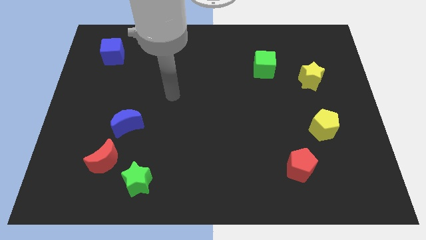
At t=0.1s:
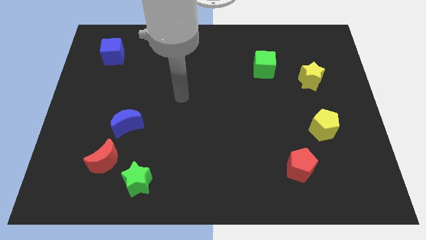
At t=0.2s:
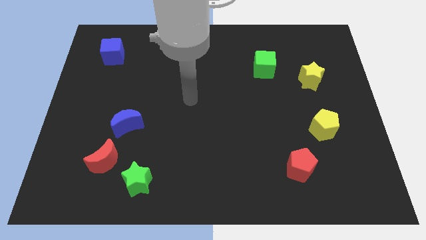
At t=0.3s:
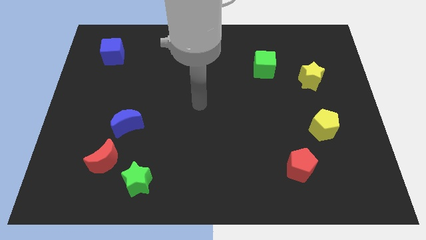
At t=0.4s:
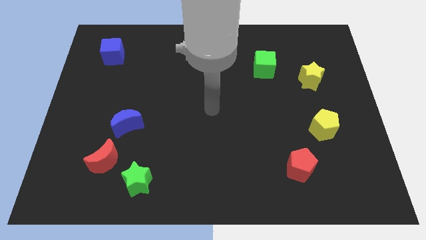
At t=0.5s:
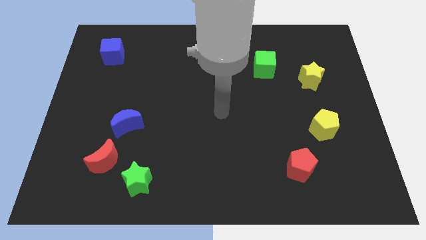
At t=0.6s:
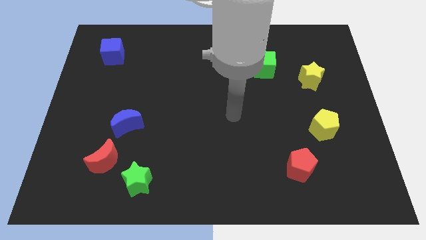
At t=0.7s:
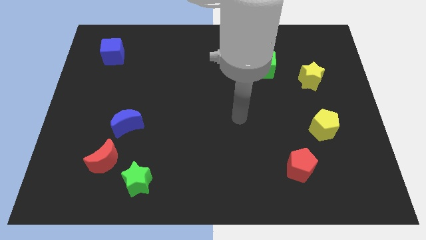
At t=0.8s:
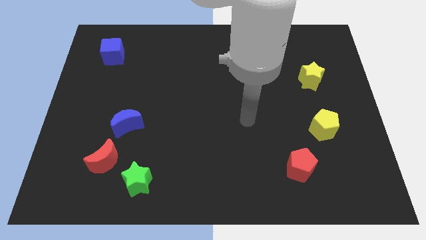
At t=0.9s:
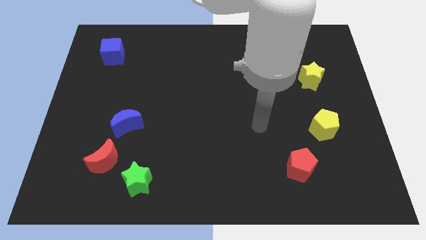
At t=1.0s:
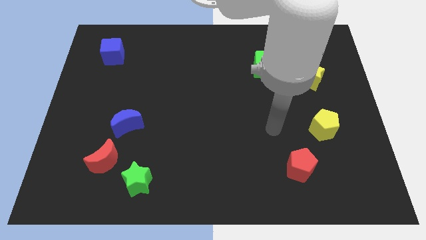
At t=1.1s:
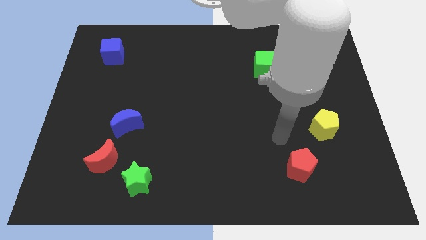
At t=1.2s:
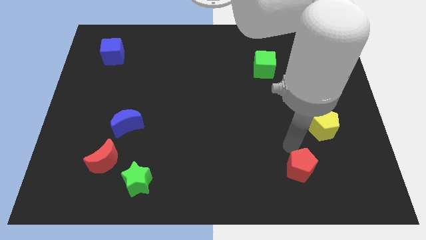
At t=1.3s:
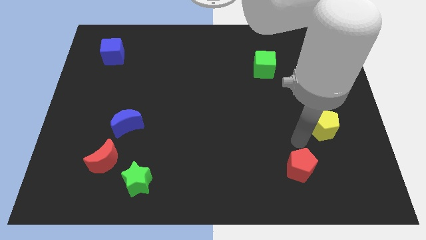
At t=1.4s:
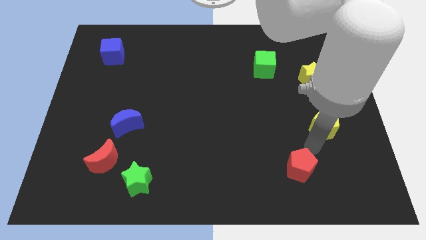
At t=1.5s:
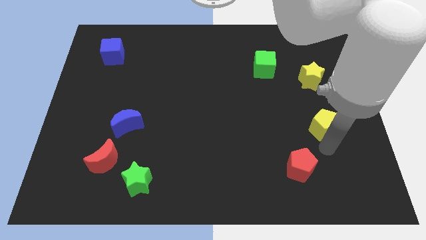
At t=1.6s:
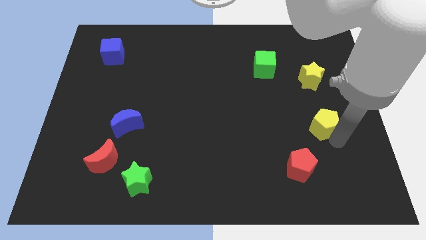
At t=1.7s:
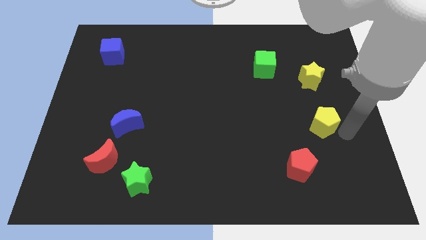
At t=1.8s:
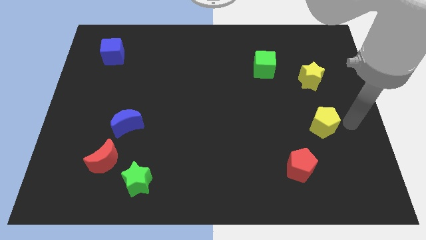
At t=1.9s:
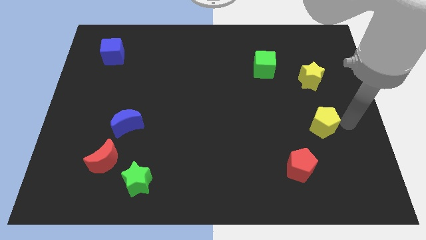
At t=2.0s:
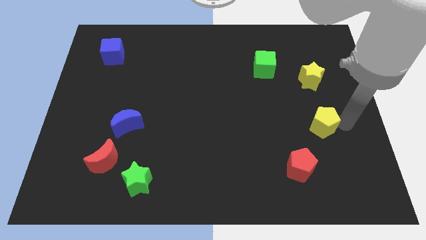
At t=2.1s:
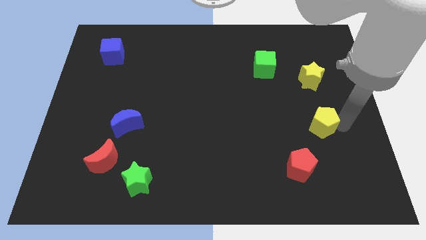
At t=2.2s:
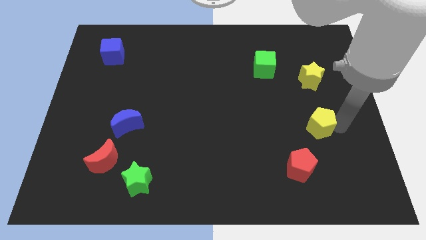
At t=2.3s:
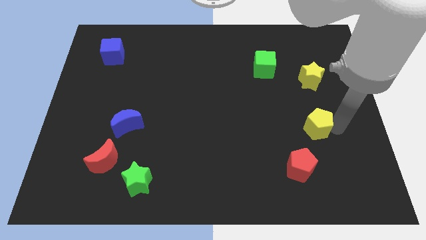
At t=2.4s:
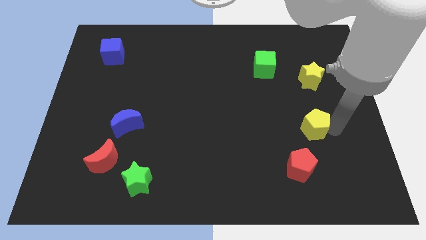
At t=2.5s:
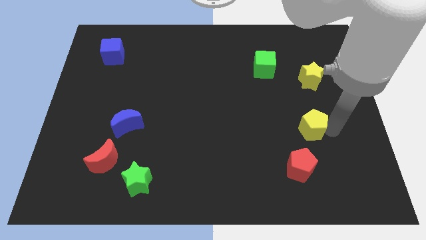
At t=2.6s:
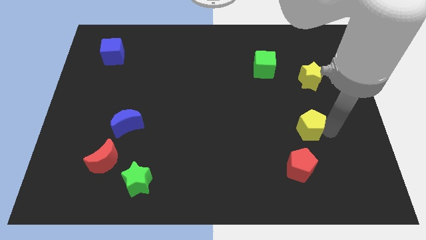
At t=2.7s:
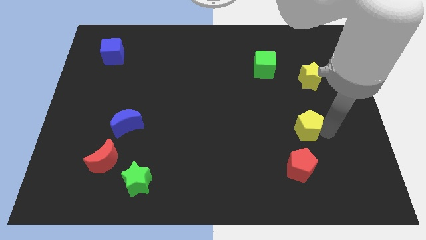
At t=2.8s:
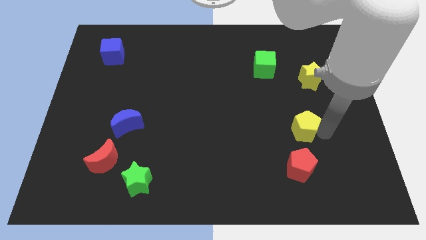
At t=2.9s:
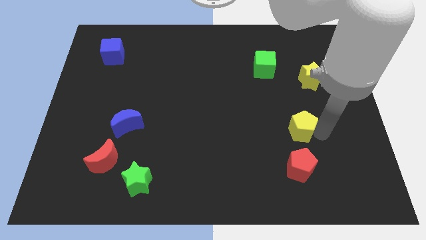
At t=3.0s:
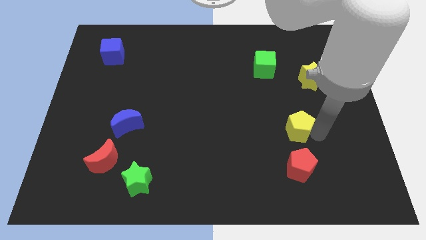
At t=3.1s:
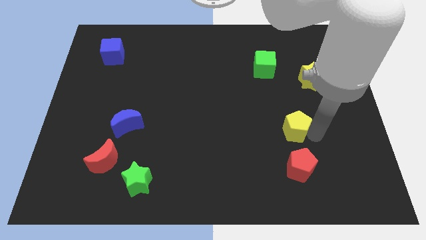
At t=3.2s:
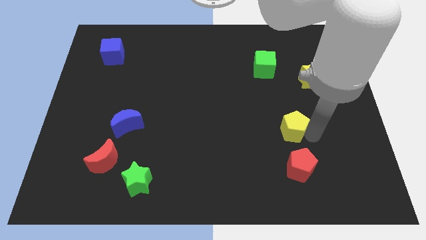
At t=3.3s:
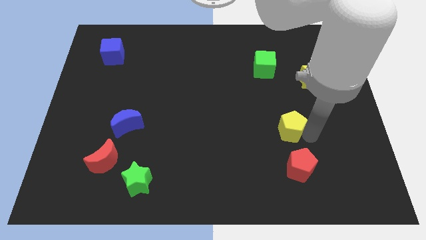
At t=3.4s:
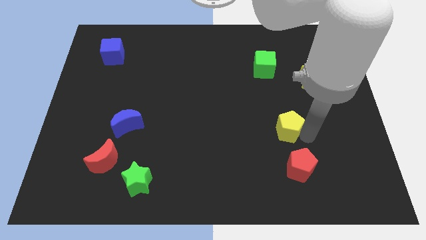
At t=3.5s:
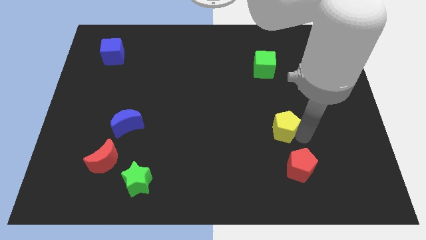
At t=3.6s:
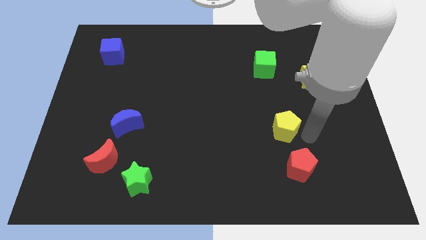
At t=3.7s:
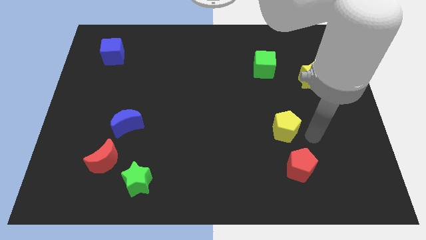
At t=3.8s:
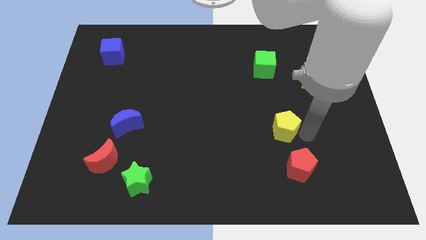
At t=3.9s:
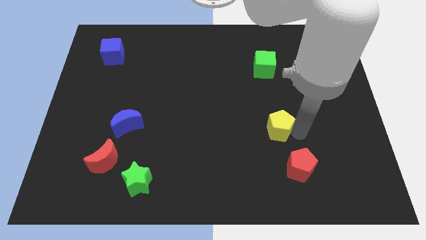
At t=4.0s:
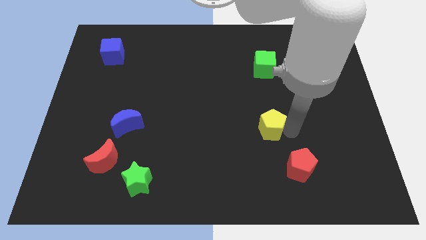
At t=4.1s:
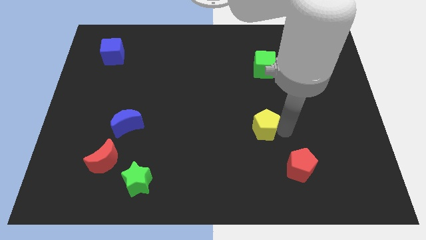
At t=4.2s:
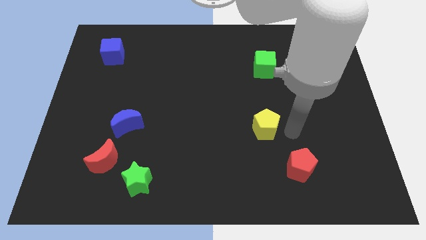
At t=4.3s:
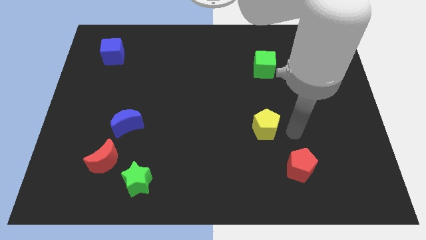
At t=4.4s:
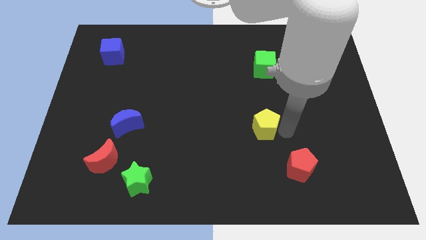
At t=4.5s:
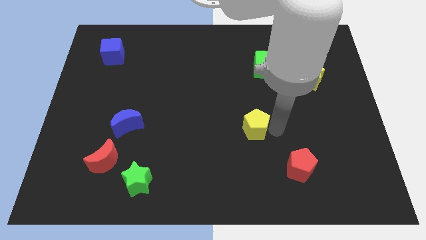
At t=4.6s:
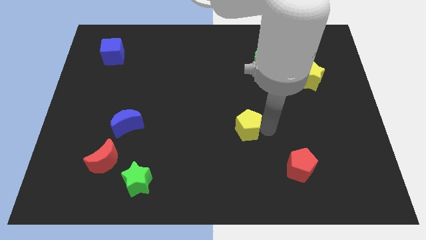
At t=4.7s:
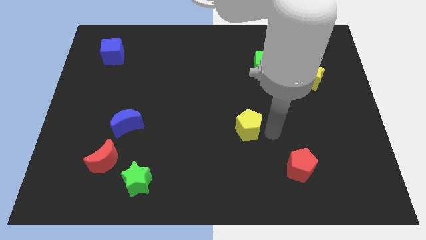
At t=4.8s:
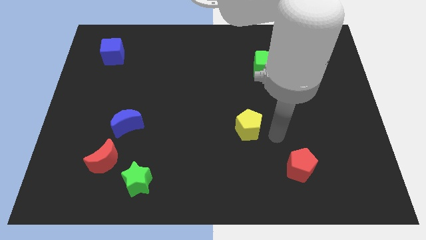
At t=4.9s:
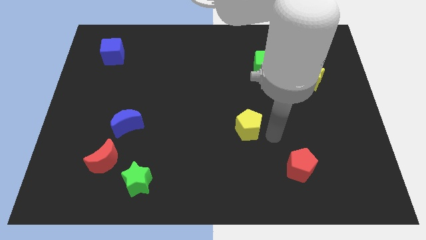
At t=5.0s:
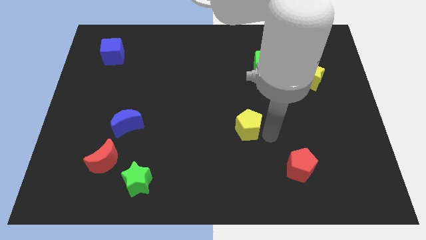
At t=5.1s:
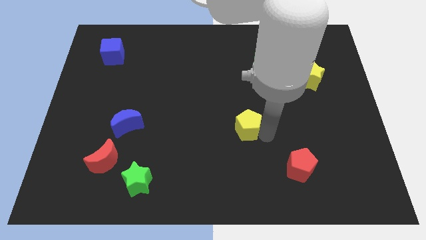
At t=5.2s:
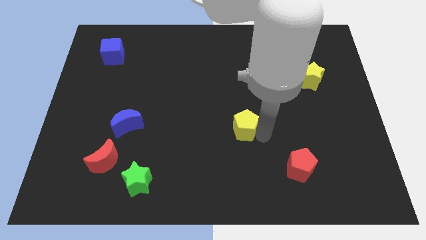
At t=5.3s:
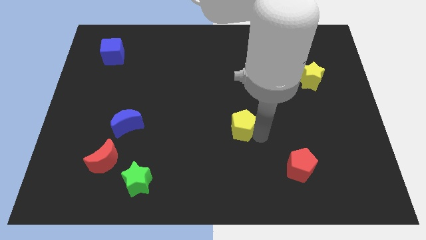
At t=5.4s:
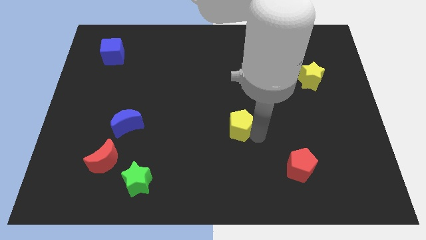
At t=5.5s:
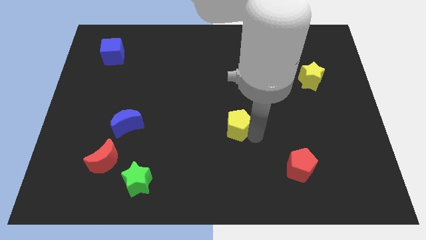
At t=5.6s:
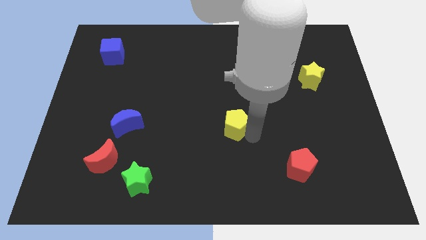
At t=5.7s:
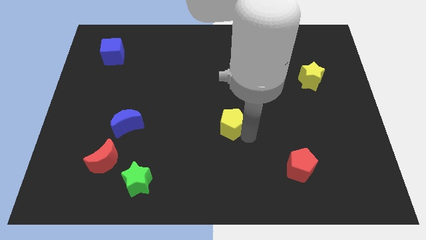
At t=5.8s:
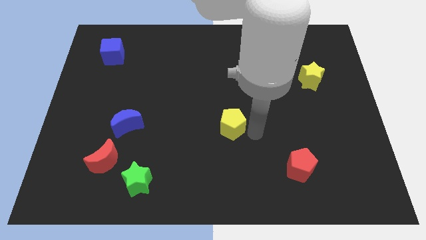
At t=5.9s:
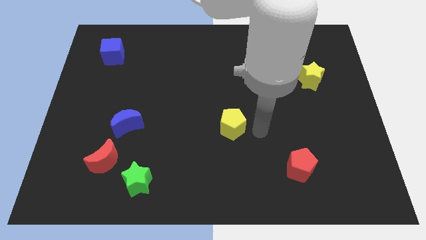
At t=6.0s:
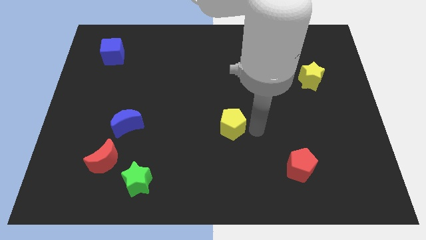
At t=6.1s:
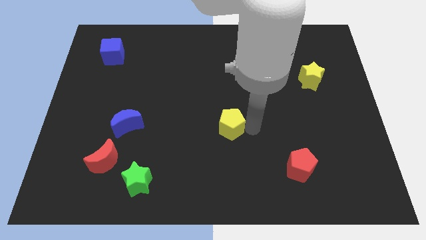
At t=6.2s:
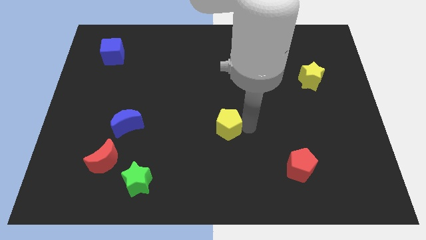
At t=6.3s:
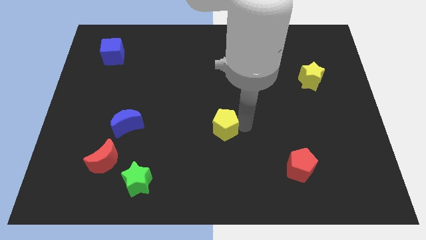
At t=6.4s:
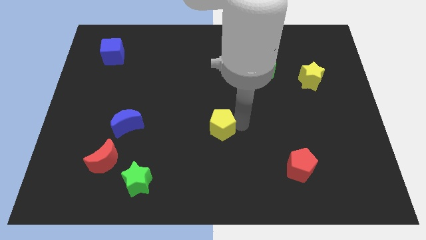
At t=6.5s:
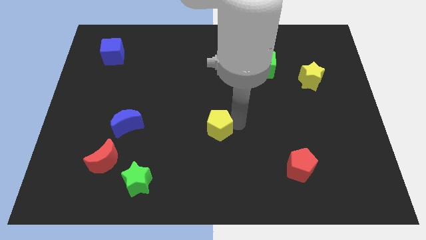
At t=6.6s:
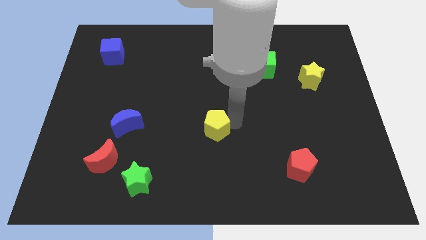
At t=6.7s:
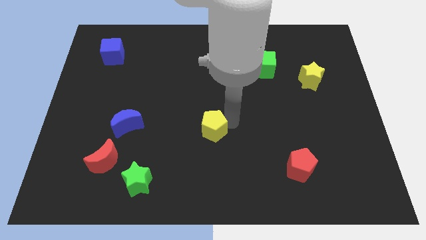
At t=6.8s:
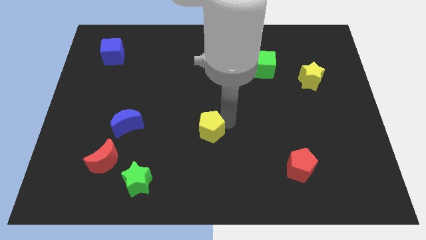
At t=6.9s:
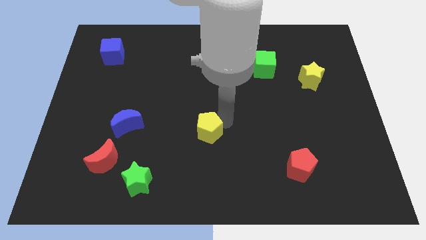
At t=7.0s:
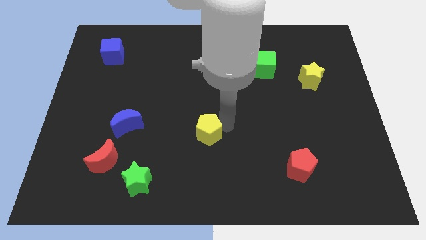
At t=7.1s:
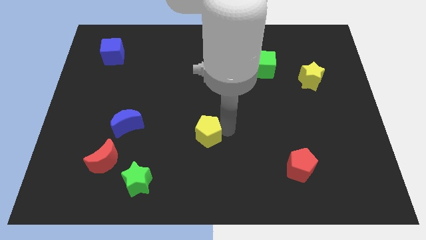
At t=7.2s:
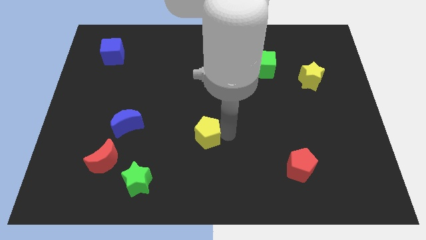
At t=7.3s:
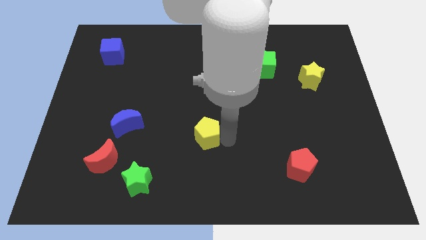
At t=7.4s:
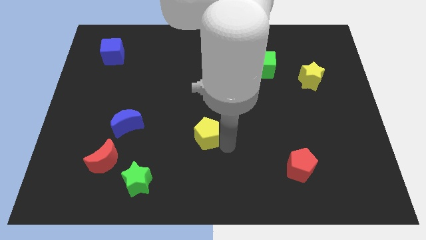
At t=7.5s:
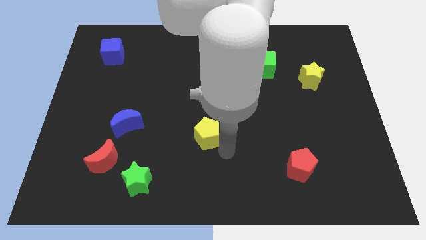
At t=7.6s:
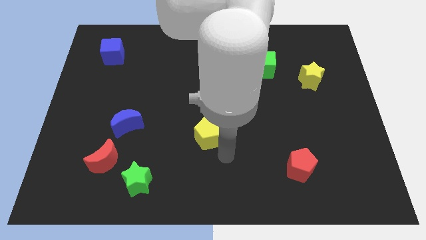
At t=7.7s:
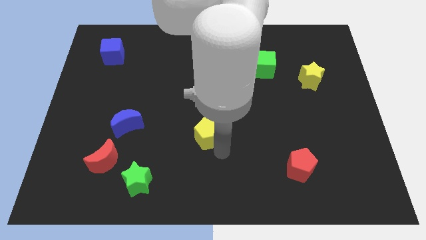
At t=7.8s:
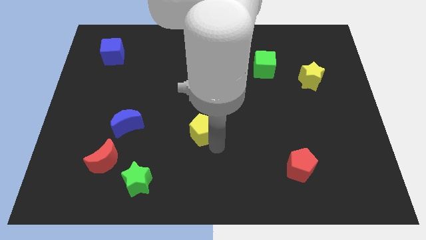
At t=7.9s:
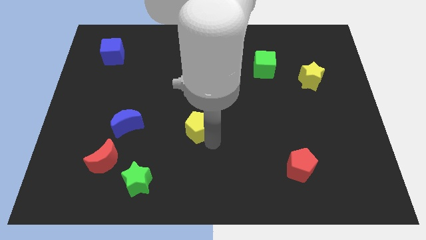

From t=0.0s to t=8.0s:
move the yellow pentagon to the right side of the blue moon

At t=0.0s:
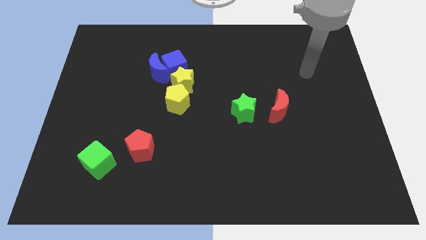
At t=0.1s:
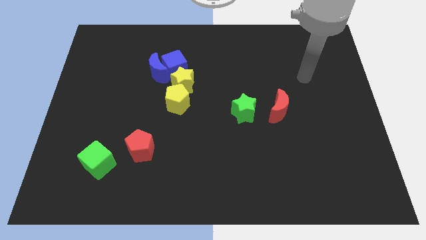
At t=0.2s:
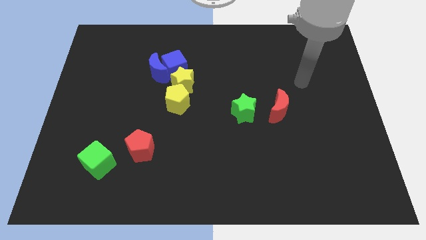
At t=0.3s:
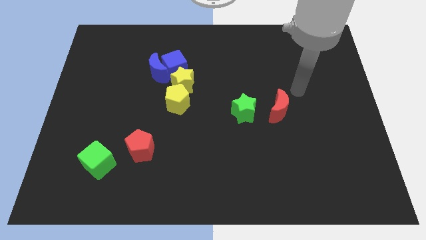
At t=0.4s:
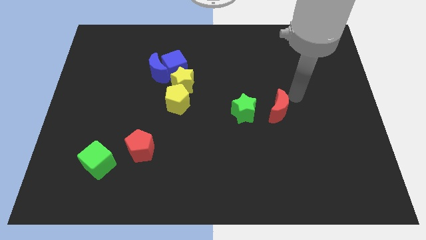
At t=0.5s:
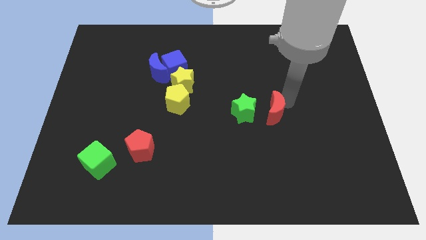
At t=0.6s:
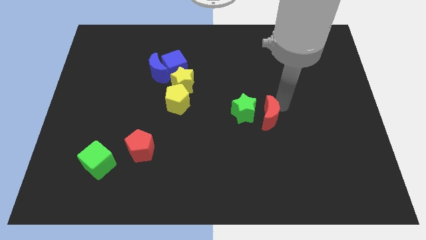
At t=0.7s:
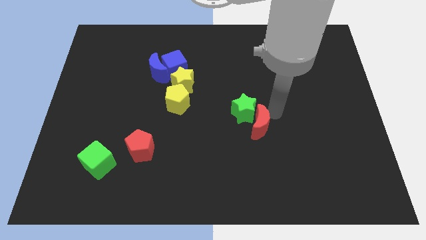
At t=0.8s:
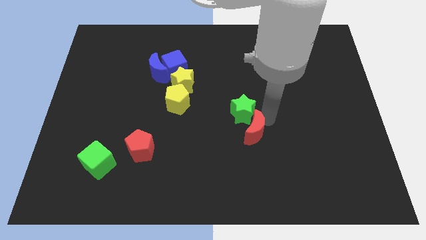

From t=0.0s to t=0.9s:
slide the green star to the right of the yellow pentagon
